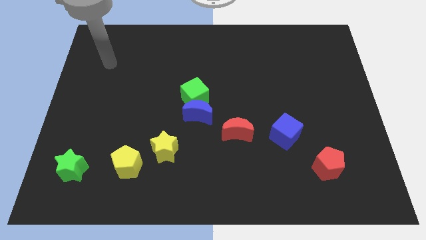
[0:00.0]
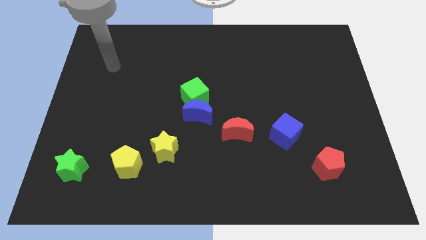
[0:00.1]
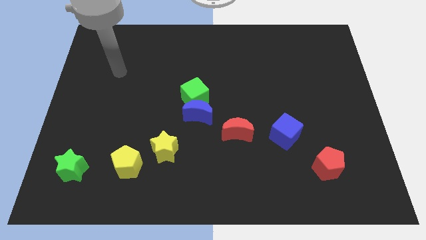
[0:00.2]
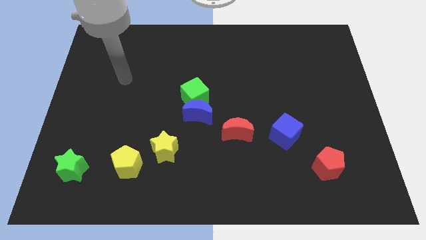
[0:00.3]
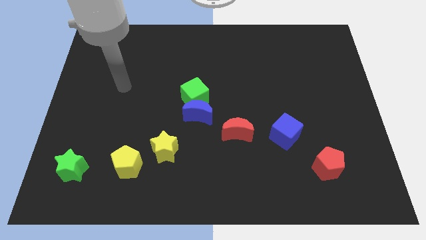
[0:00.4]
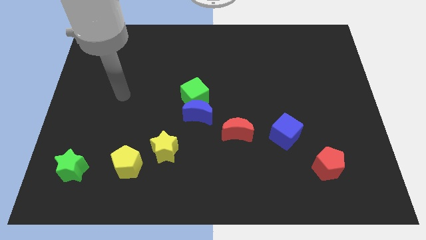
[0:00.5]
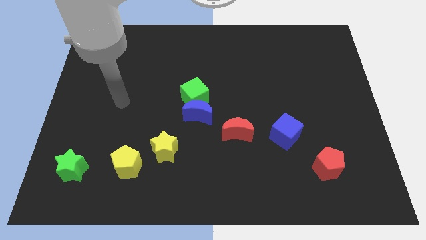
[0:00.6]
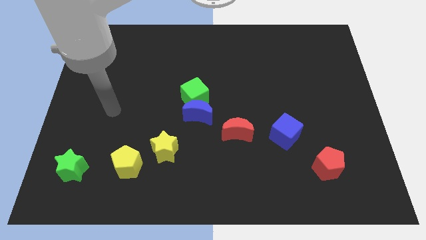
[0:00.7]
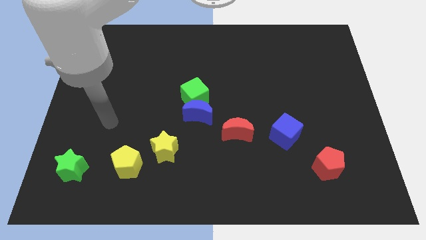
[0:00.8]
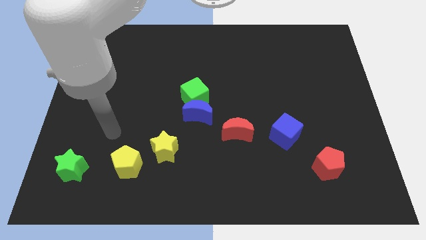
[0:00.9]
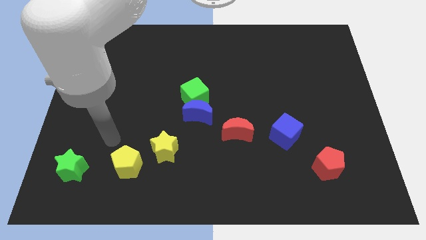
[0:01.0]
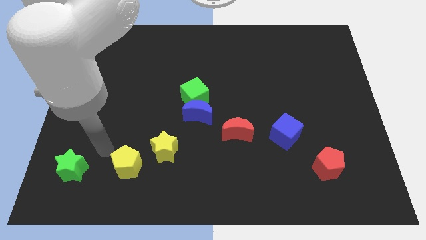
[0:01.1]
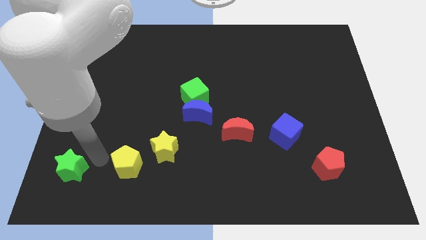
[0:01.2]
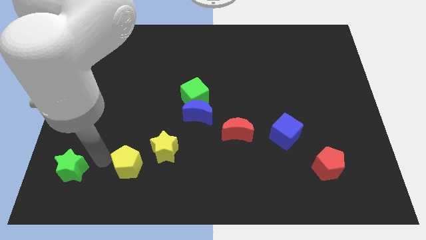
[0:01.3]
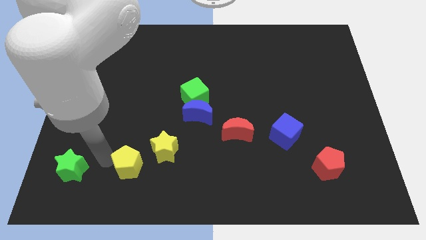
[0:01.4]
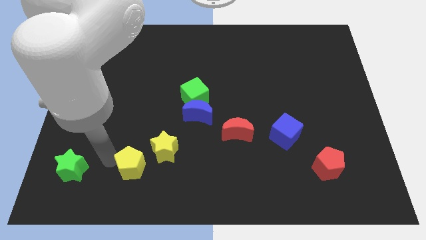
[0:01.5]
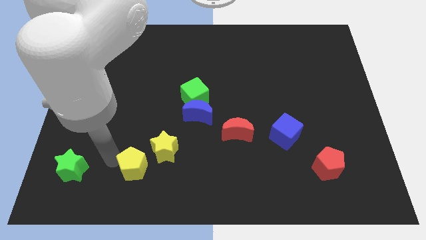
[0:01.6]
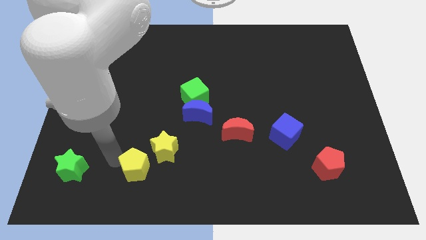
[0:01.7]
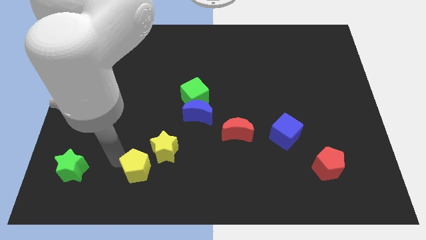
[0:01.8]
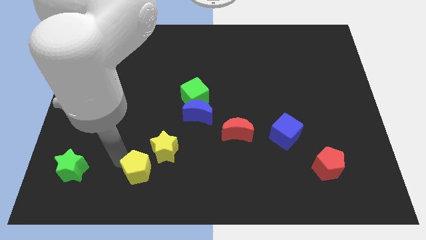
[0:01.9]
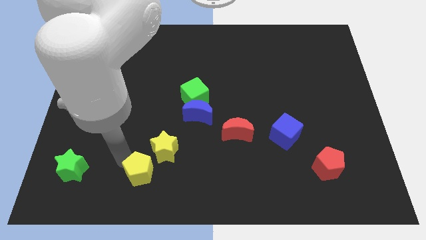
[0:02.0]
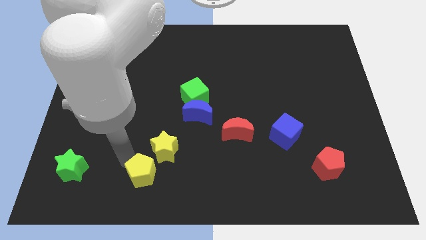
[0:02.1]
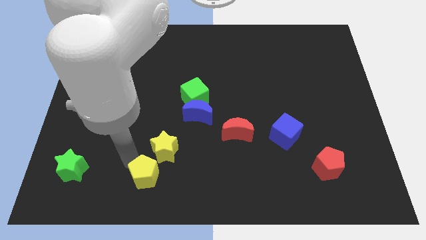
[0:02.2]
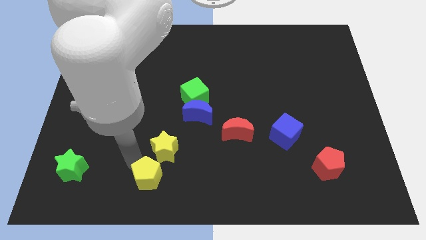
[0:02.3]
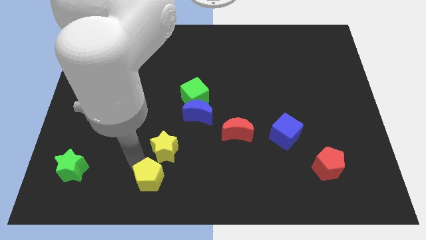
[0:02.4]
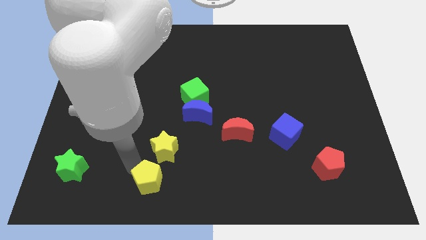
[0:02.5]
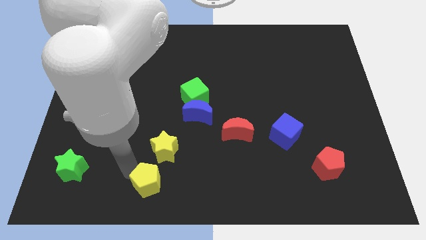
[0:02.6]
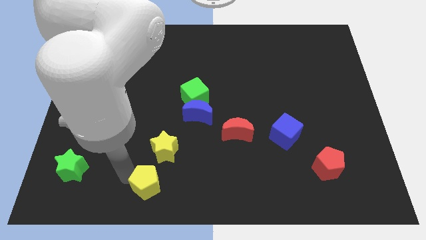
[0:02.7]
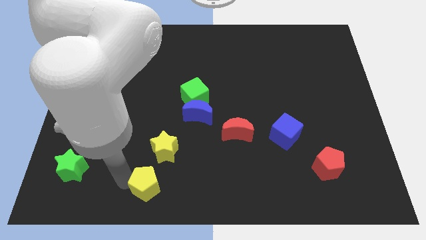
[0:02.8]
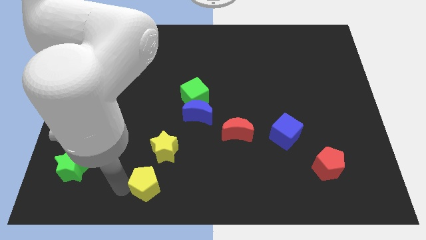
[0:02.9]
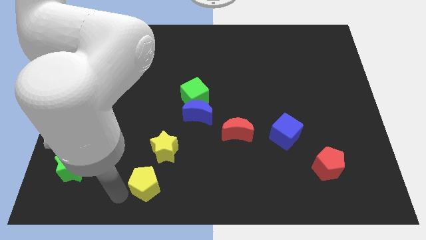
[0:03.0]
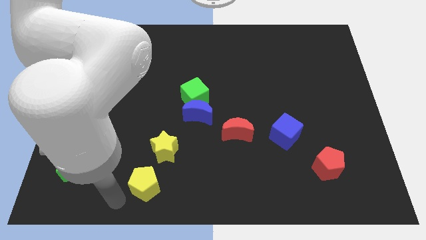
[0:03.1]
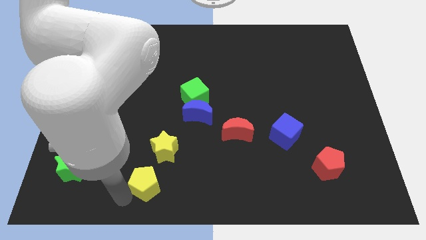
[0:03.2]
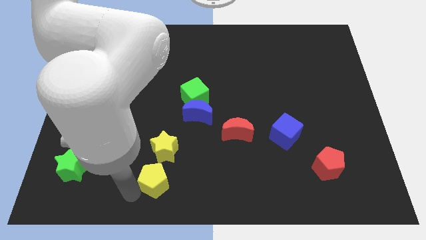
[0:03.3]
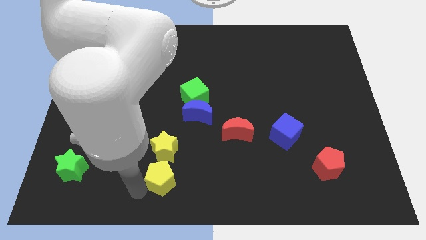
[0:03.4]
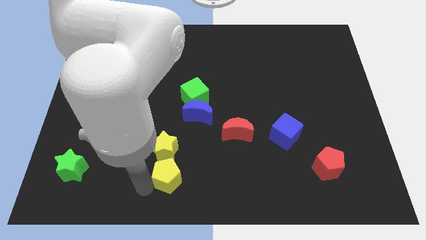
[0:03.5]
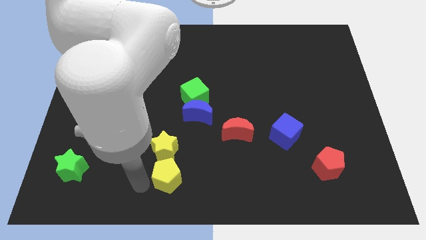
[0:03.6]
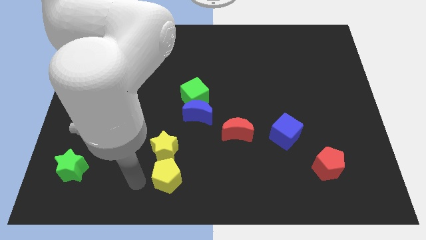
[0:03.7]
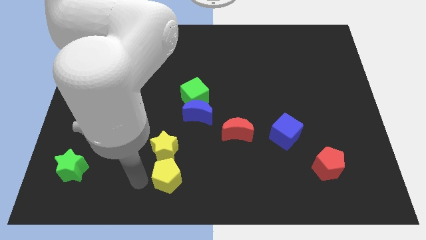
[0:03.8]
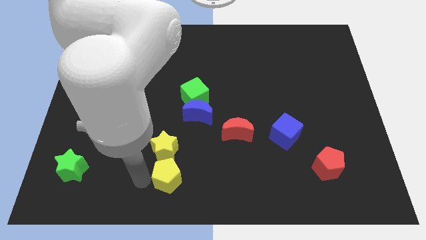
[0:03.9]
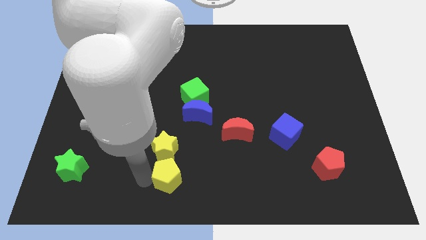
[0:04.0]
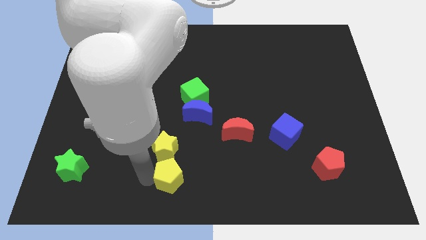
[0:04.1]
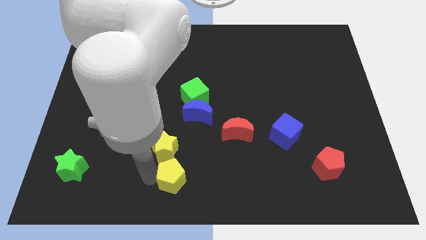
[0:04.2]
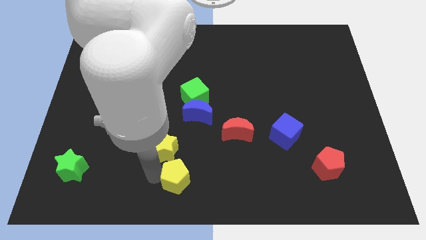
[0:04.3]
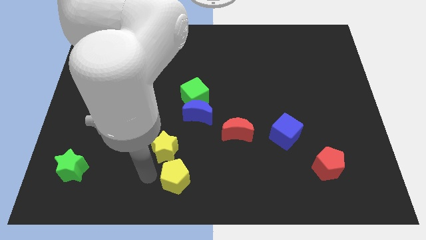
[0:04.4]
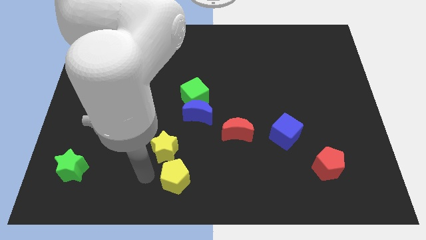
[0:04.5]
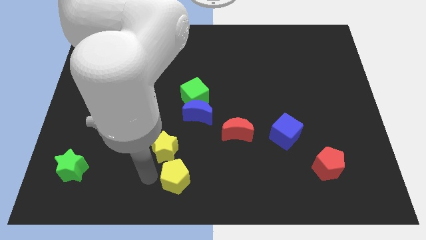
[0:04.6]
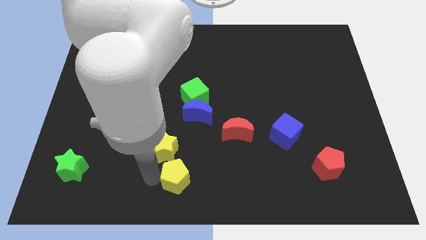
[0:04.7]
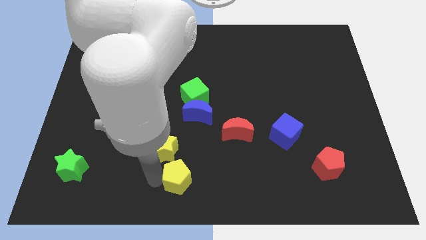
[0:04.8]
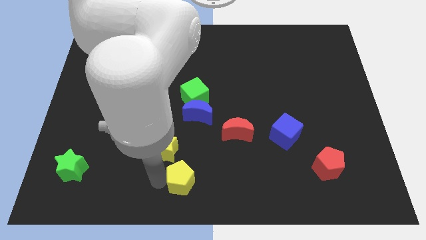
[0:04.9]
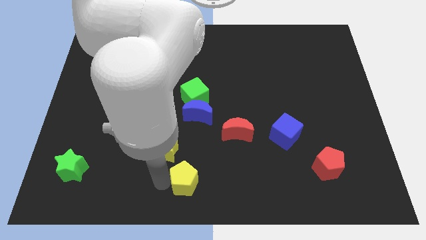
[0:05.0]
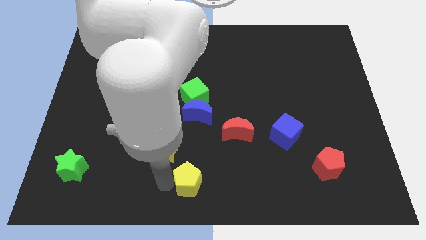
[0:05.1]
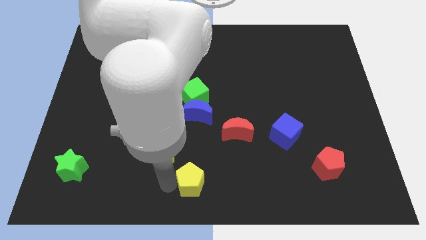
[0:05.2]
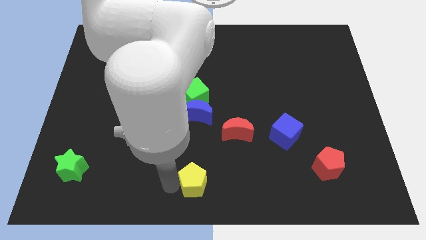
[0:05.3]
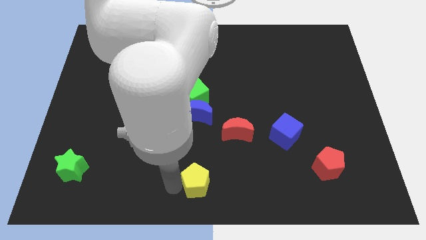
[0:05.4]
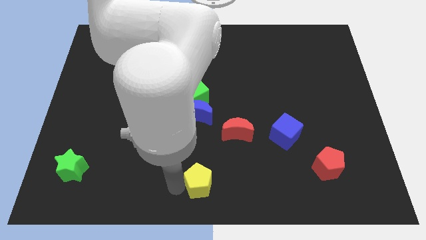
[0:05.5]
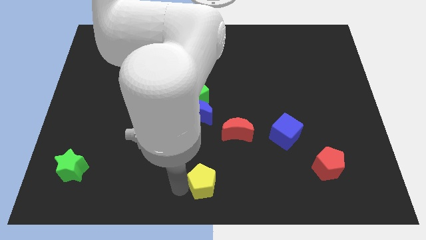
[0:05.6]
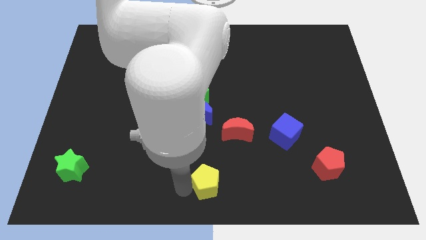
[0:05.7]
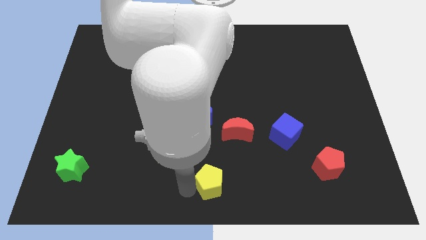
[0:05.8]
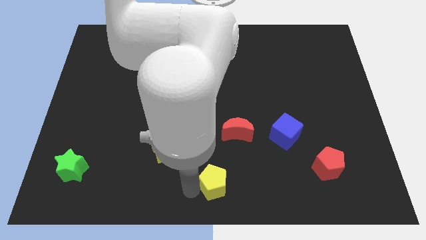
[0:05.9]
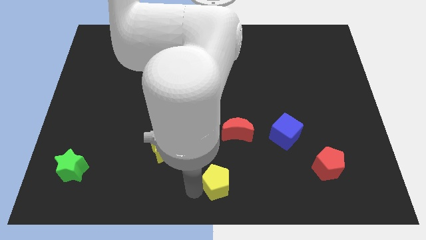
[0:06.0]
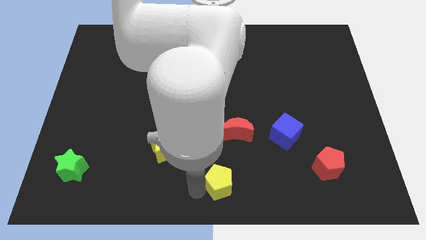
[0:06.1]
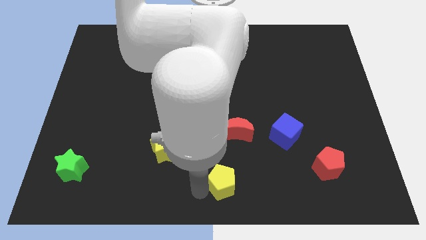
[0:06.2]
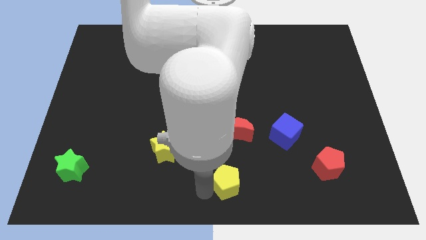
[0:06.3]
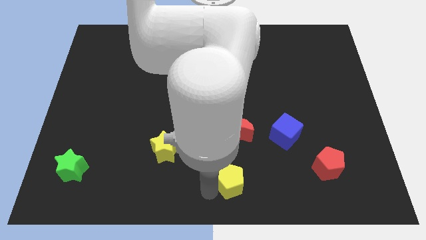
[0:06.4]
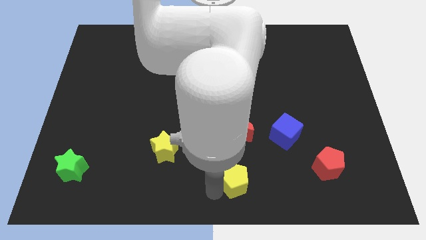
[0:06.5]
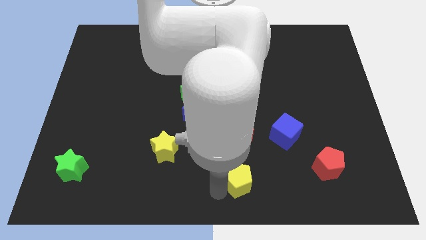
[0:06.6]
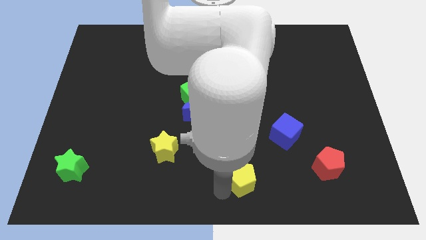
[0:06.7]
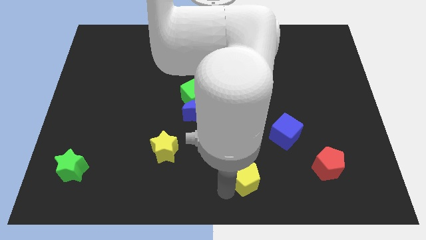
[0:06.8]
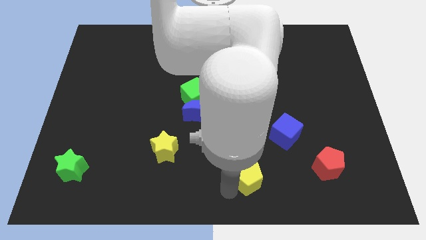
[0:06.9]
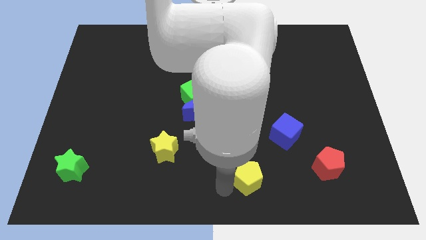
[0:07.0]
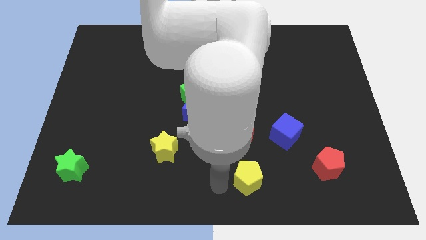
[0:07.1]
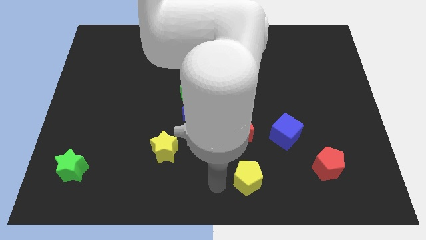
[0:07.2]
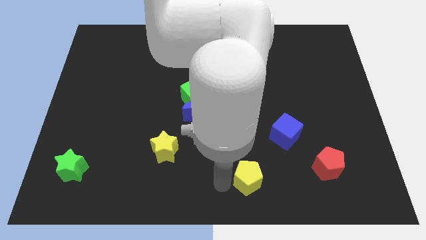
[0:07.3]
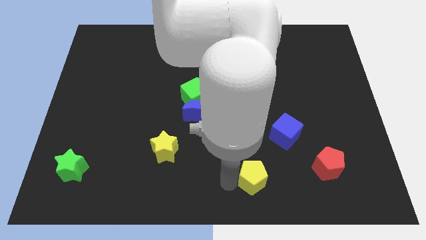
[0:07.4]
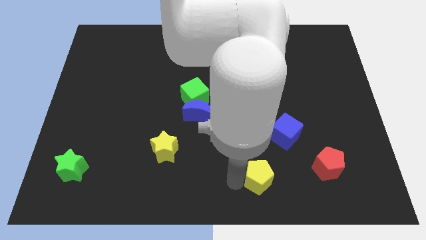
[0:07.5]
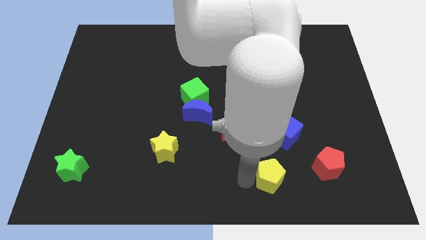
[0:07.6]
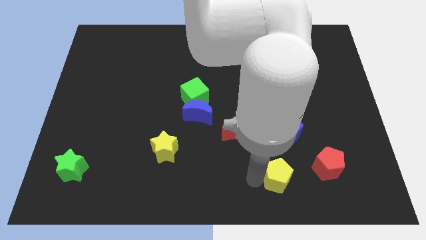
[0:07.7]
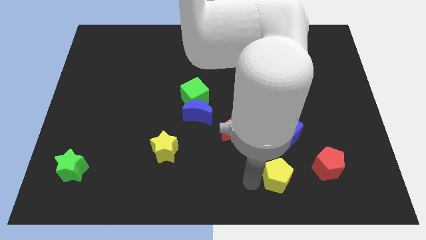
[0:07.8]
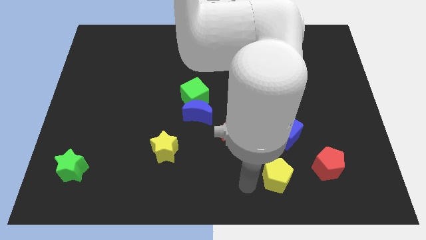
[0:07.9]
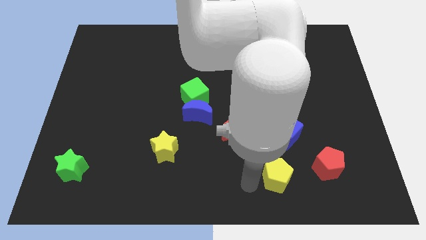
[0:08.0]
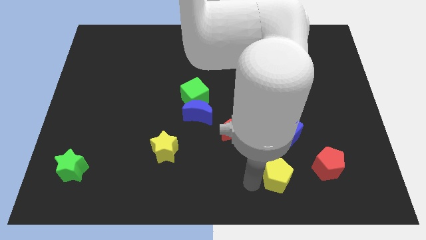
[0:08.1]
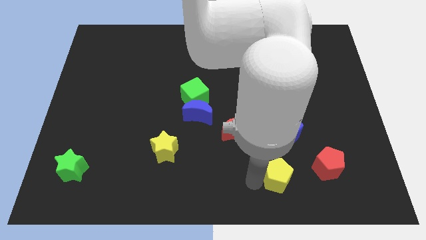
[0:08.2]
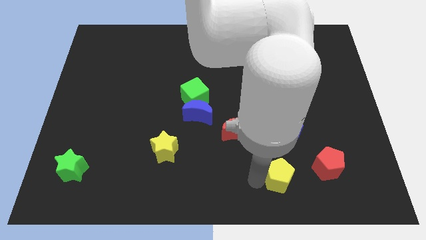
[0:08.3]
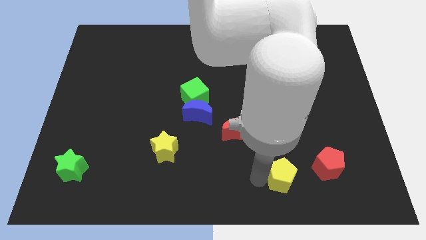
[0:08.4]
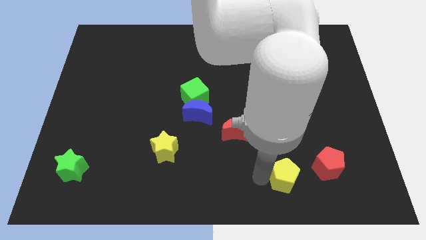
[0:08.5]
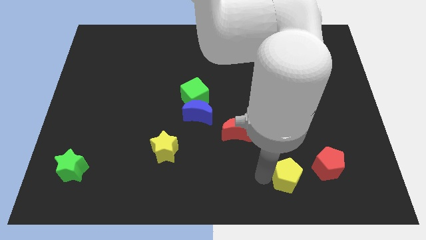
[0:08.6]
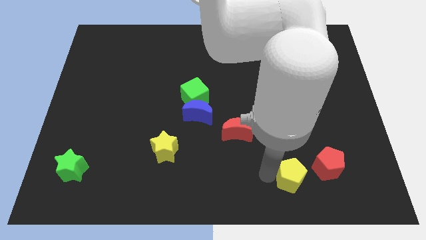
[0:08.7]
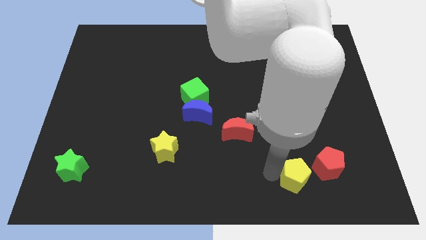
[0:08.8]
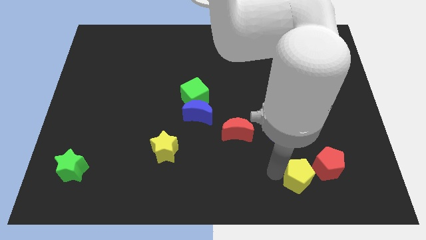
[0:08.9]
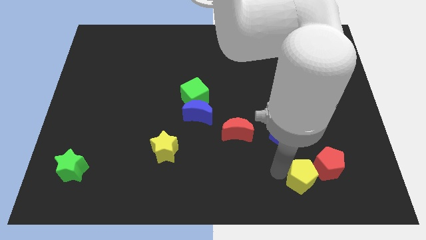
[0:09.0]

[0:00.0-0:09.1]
push the yellow pentagon close to the red pentagon
